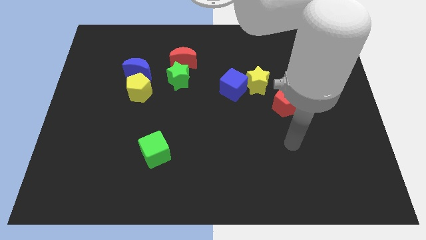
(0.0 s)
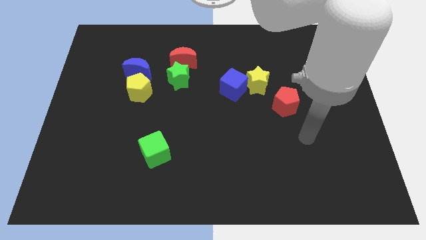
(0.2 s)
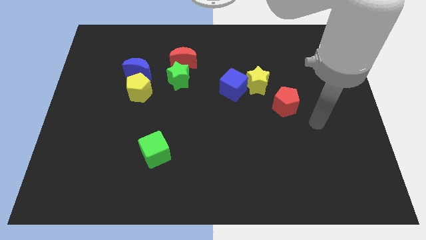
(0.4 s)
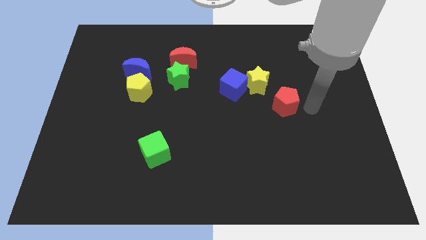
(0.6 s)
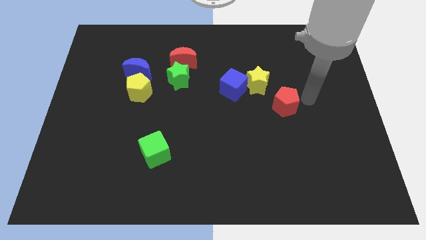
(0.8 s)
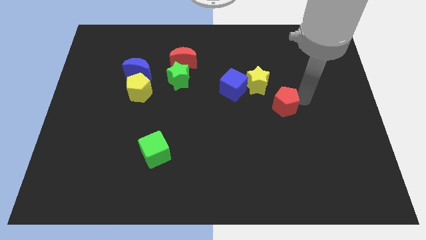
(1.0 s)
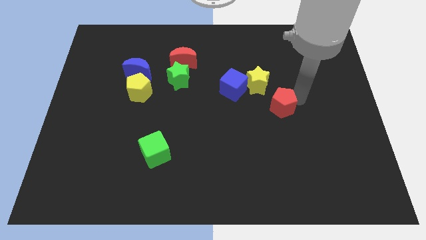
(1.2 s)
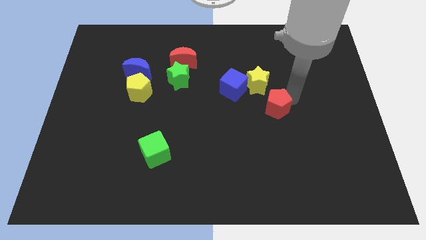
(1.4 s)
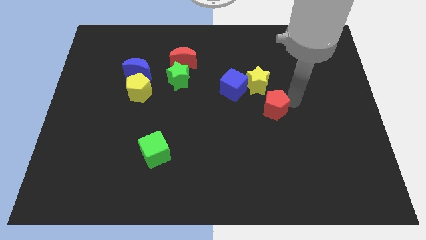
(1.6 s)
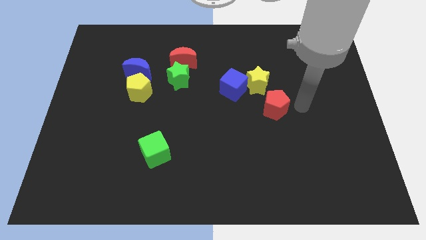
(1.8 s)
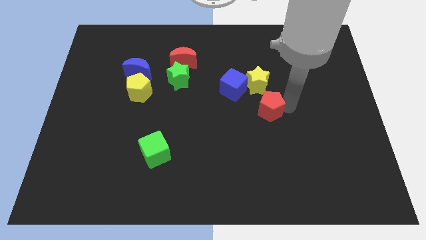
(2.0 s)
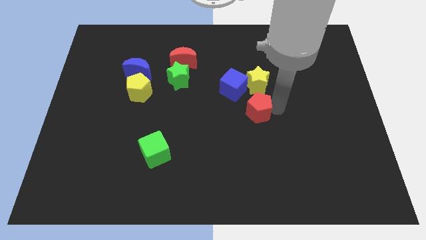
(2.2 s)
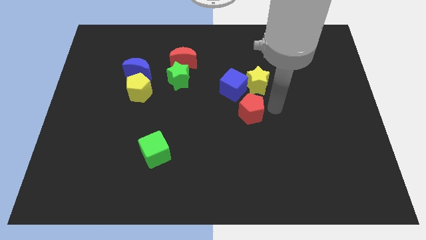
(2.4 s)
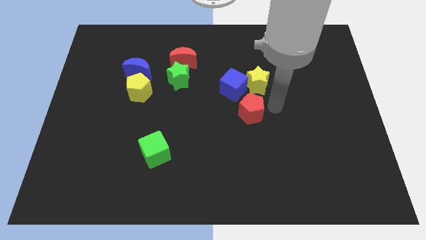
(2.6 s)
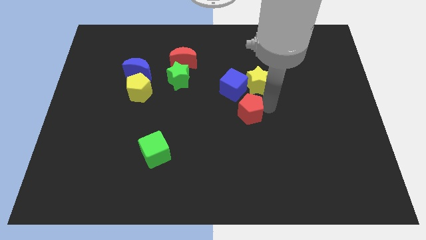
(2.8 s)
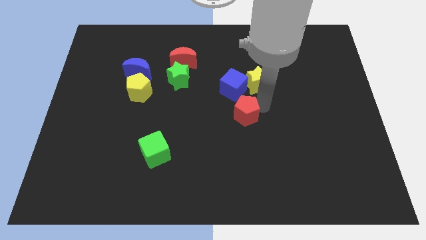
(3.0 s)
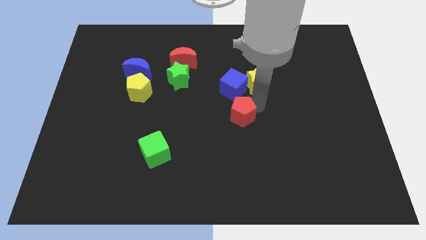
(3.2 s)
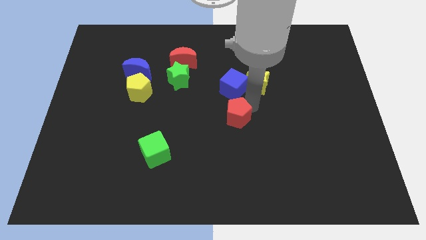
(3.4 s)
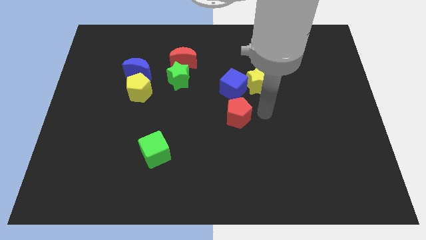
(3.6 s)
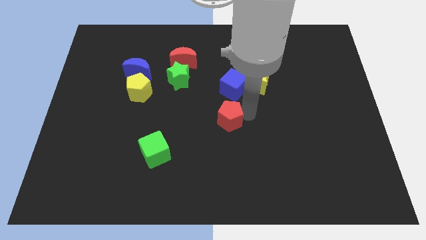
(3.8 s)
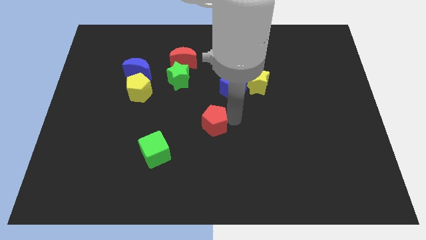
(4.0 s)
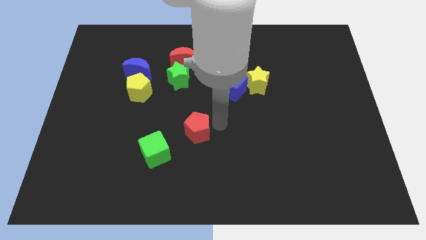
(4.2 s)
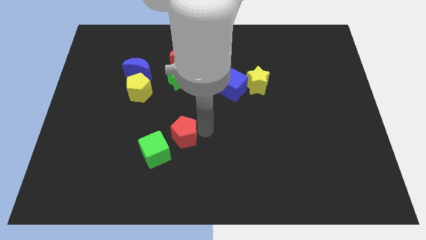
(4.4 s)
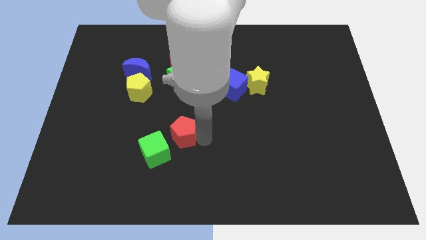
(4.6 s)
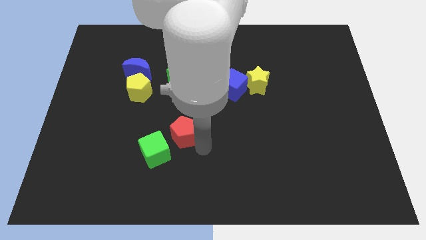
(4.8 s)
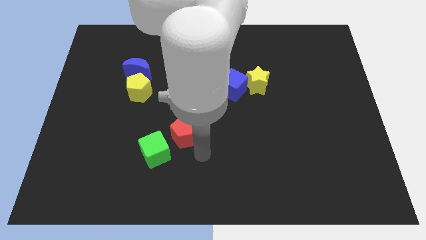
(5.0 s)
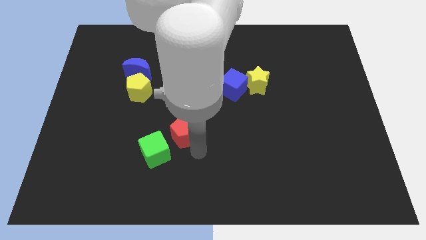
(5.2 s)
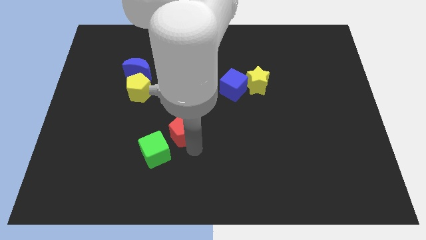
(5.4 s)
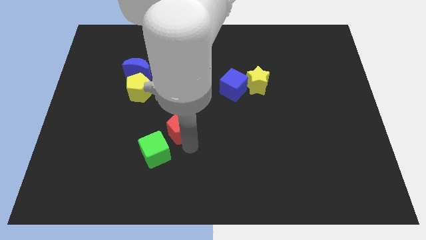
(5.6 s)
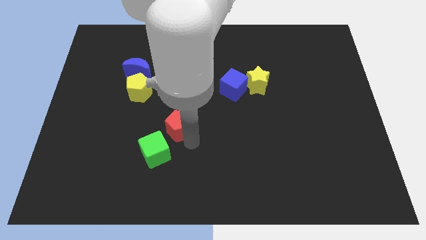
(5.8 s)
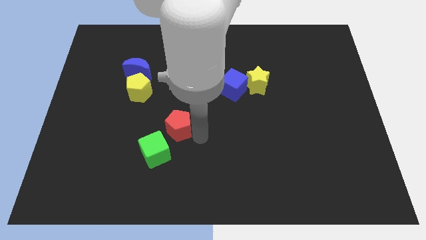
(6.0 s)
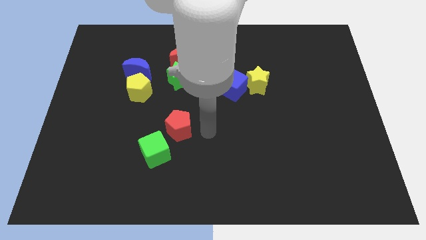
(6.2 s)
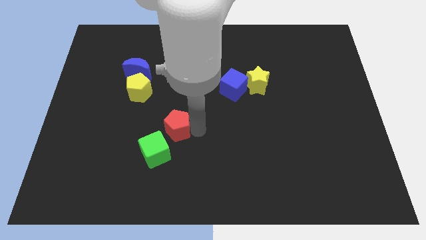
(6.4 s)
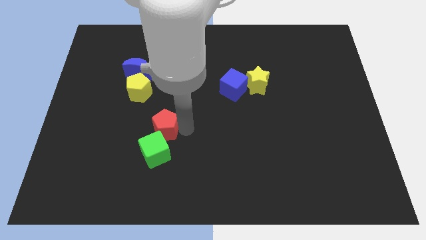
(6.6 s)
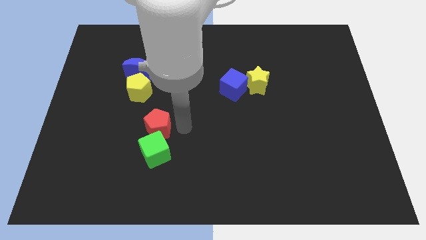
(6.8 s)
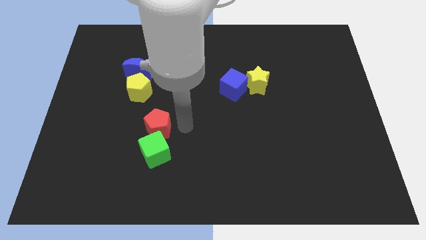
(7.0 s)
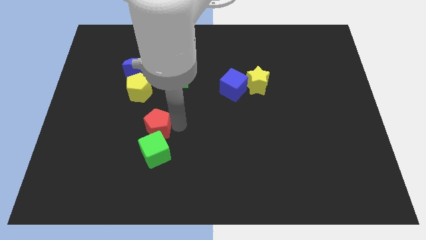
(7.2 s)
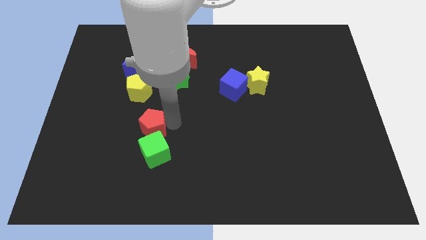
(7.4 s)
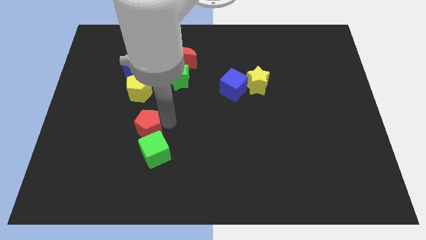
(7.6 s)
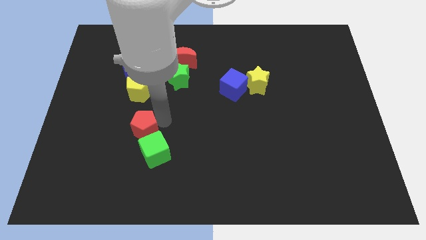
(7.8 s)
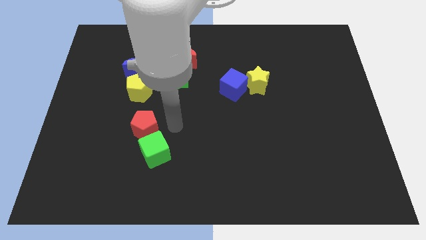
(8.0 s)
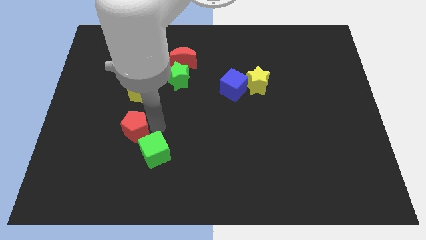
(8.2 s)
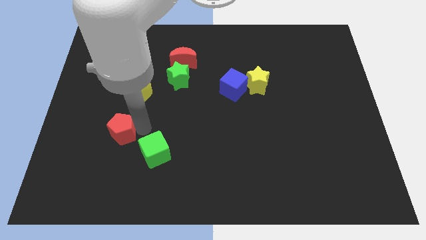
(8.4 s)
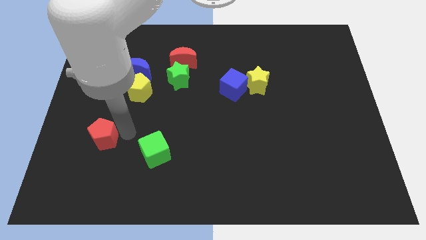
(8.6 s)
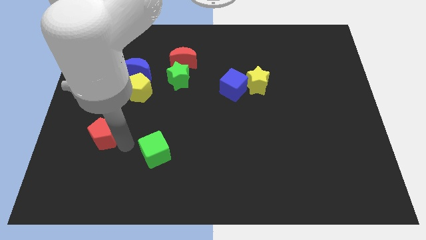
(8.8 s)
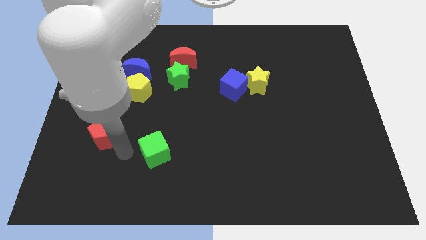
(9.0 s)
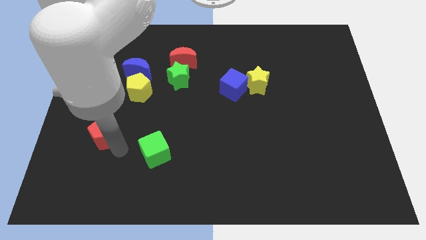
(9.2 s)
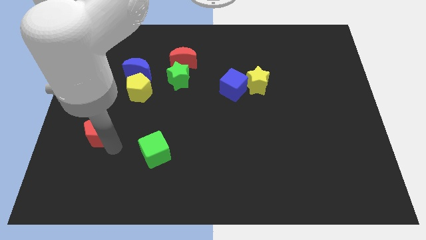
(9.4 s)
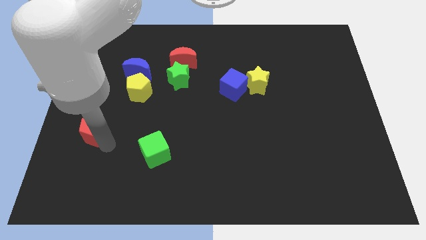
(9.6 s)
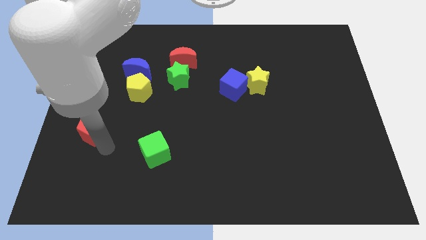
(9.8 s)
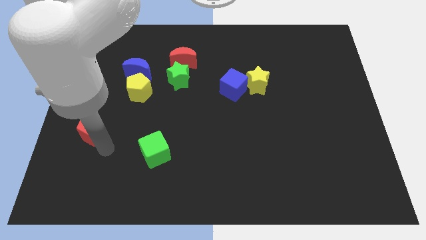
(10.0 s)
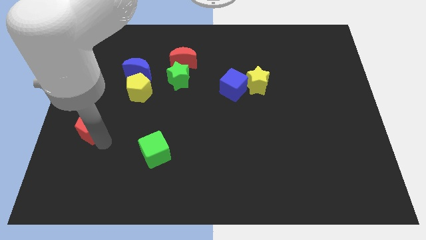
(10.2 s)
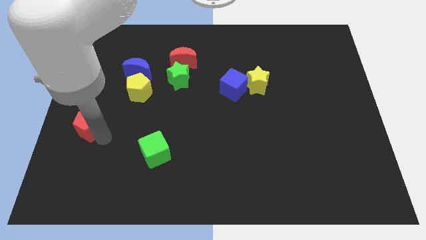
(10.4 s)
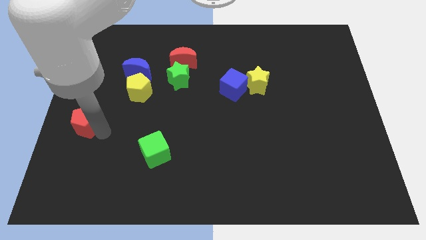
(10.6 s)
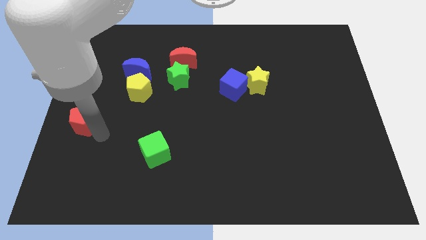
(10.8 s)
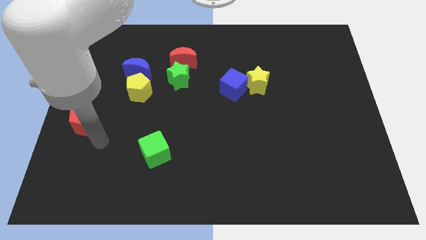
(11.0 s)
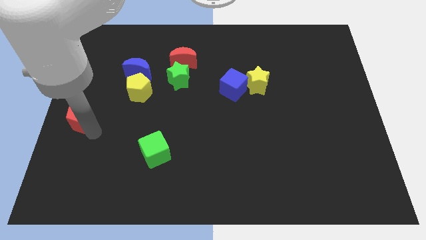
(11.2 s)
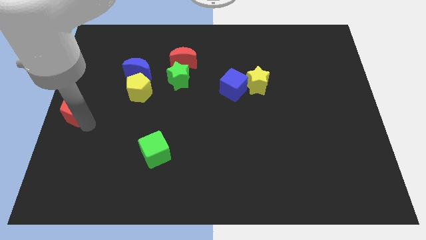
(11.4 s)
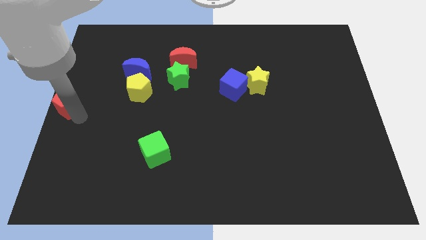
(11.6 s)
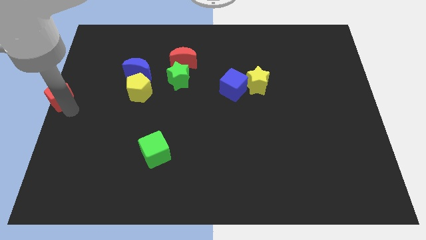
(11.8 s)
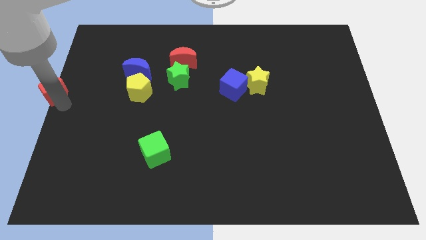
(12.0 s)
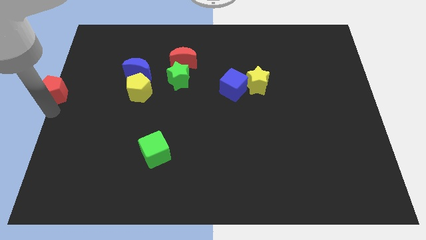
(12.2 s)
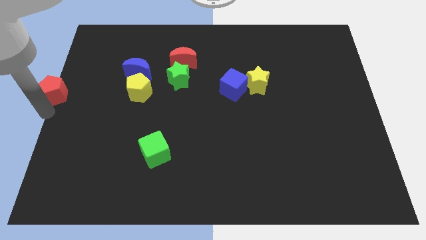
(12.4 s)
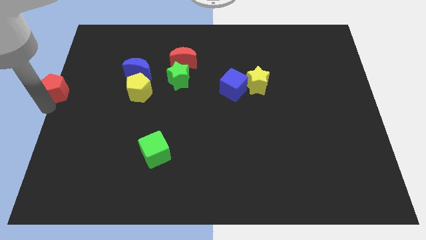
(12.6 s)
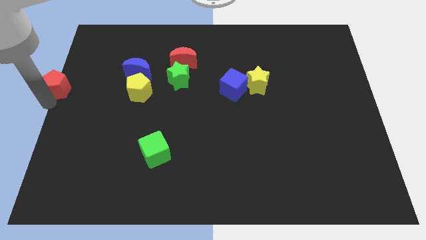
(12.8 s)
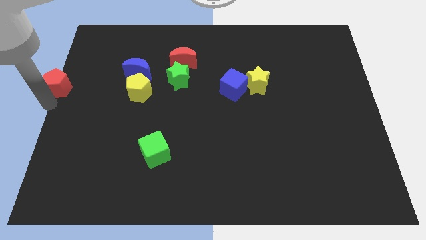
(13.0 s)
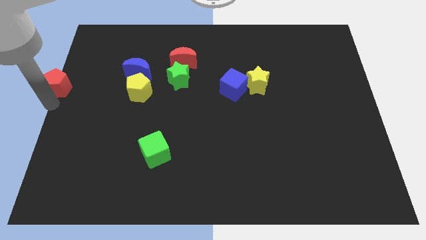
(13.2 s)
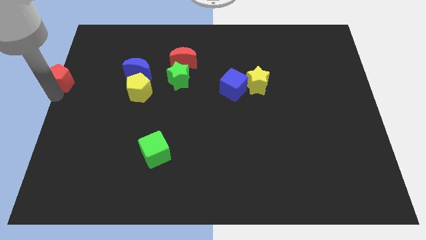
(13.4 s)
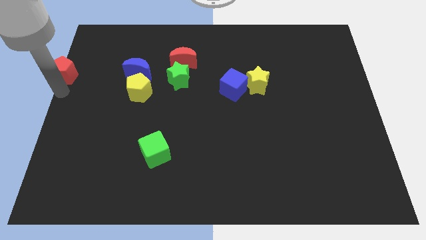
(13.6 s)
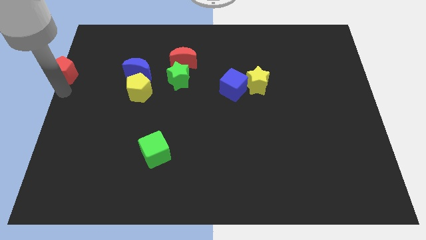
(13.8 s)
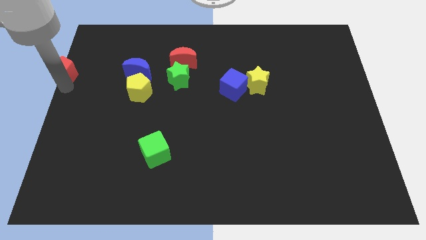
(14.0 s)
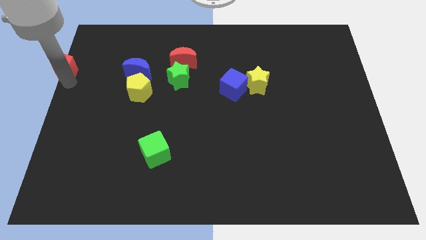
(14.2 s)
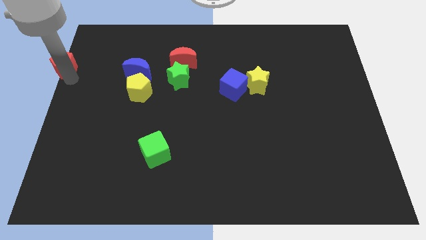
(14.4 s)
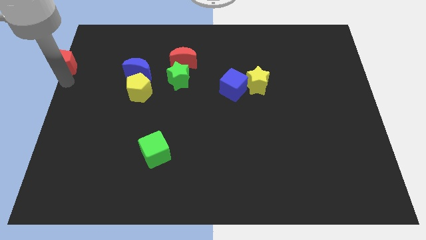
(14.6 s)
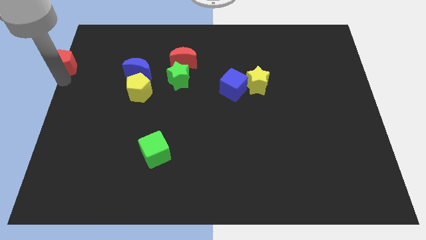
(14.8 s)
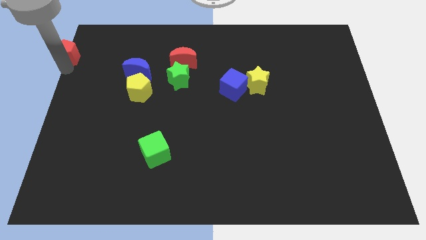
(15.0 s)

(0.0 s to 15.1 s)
move the red pentagon to the top left of the board

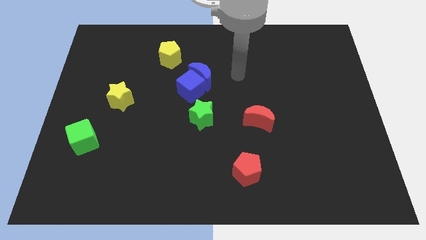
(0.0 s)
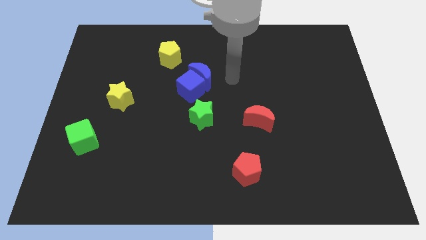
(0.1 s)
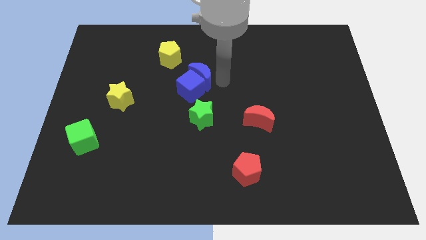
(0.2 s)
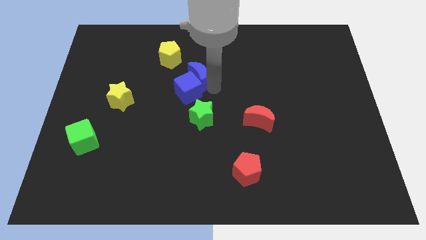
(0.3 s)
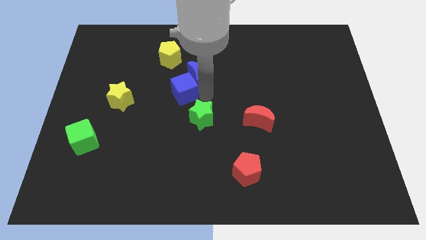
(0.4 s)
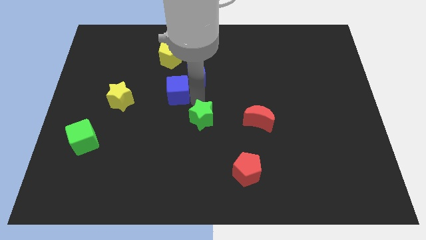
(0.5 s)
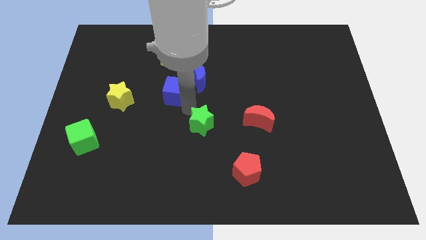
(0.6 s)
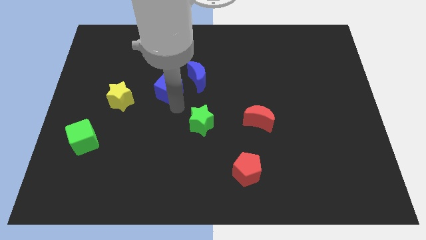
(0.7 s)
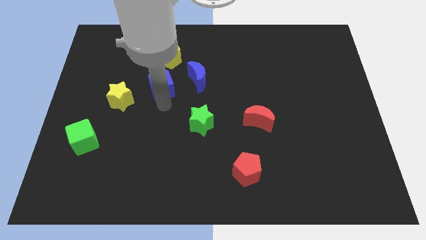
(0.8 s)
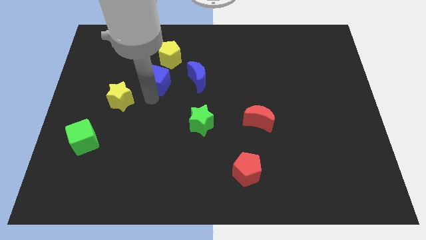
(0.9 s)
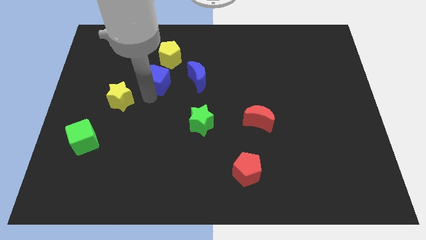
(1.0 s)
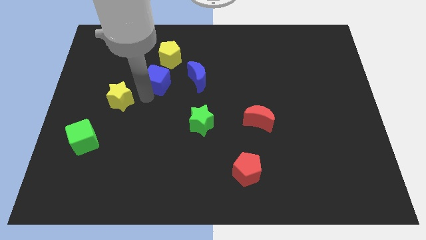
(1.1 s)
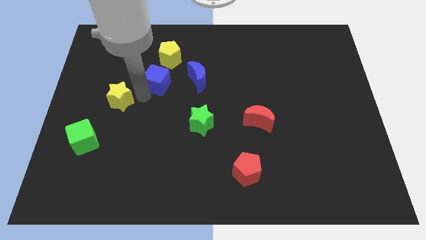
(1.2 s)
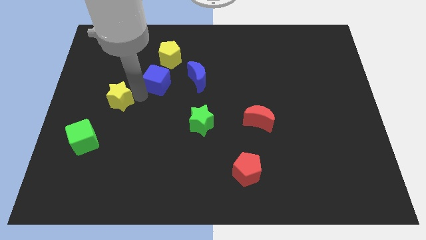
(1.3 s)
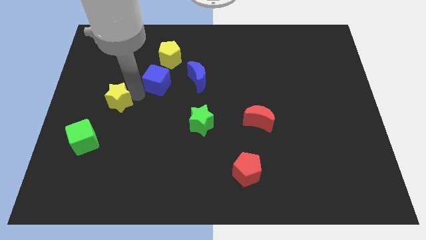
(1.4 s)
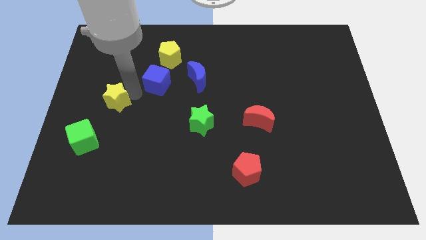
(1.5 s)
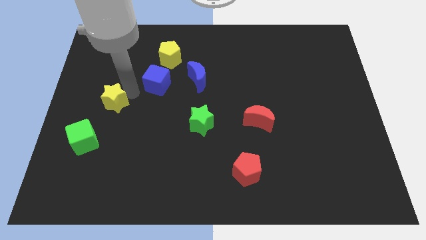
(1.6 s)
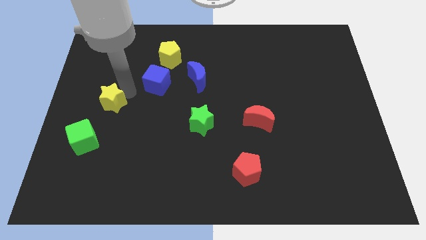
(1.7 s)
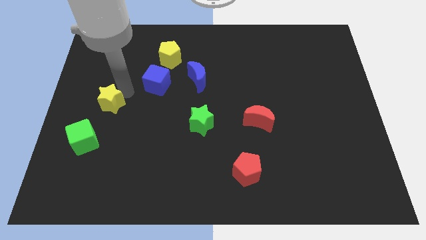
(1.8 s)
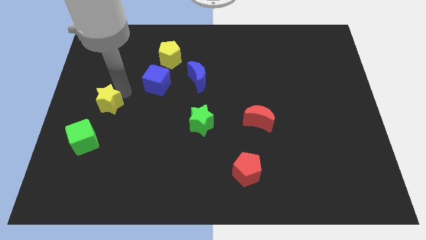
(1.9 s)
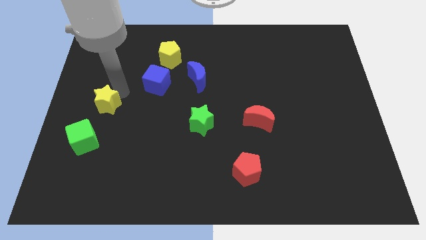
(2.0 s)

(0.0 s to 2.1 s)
put the yellow star to the center left
